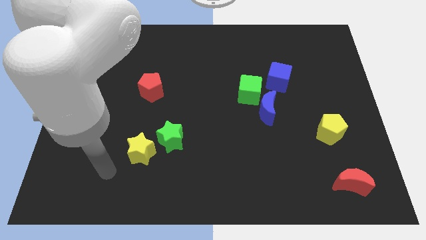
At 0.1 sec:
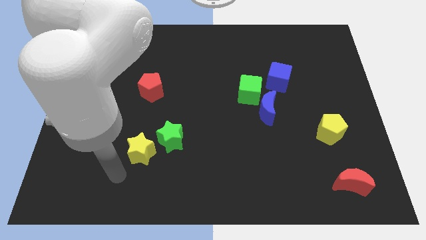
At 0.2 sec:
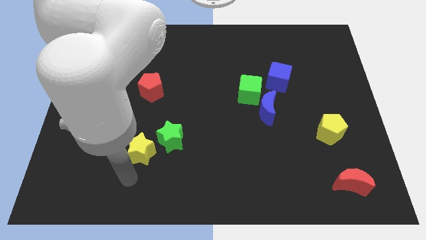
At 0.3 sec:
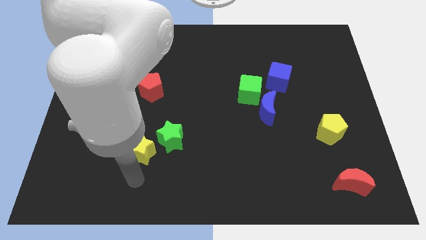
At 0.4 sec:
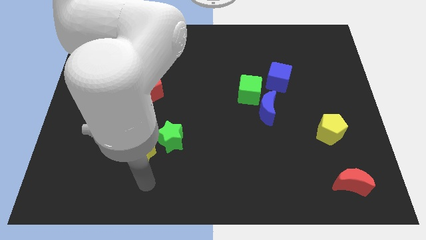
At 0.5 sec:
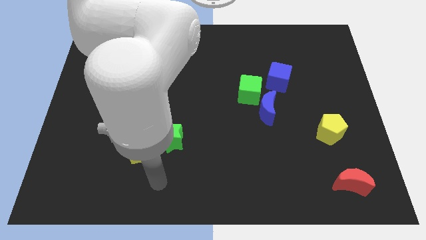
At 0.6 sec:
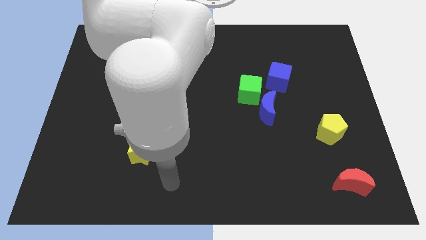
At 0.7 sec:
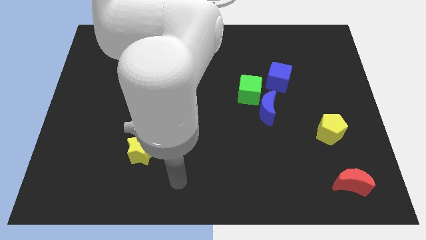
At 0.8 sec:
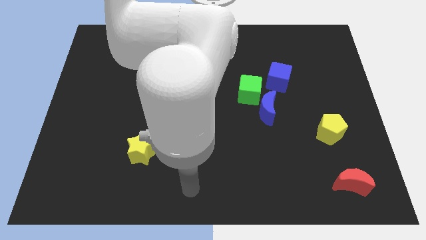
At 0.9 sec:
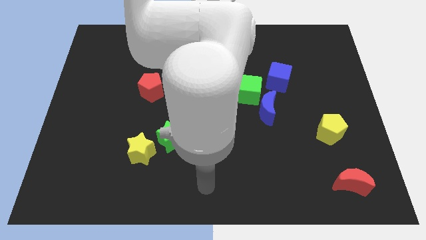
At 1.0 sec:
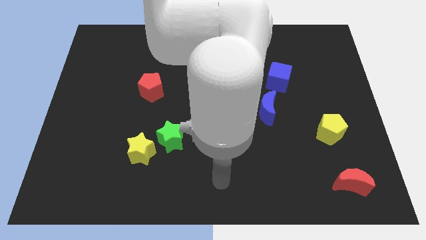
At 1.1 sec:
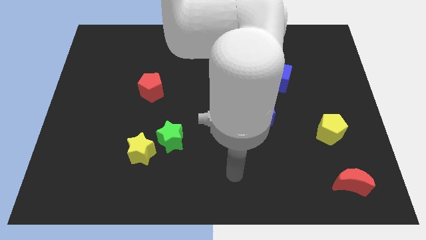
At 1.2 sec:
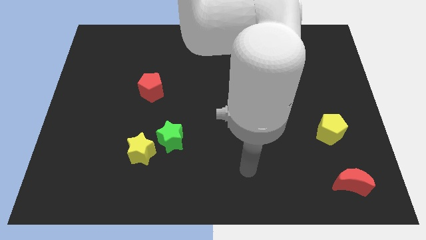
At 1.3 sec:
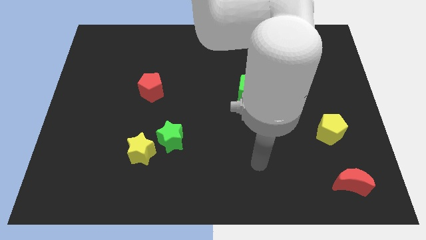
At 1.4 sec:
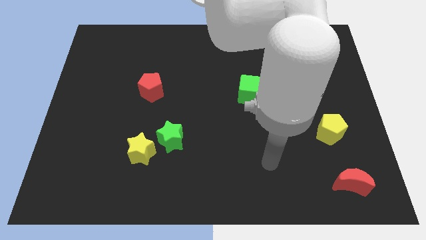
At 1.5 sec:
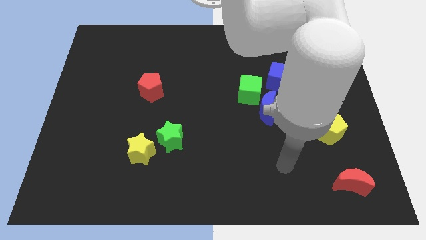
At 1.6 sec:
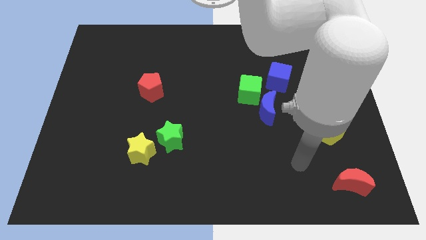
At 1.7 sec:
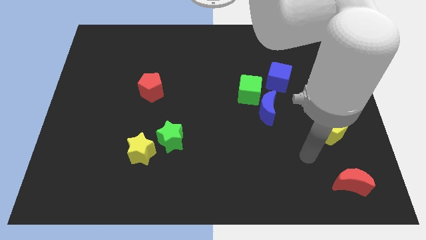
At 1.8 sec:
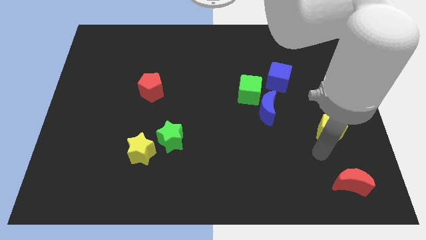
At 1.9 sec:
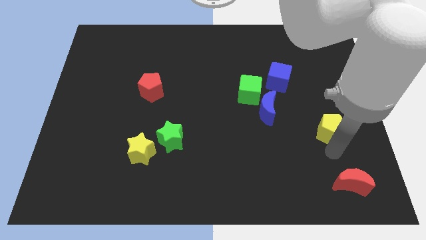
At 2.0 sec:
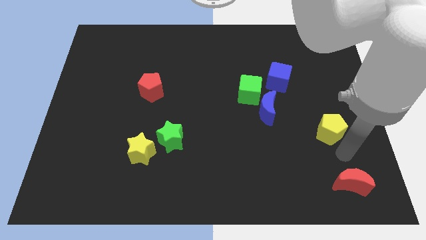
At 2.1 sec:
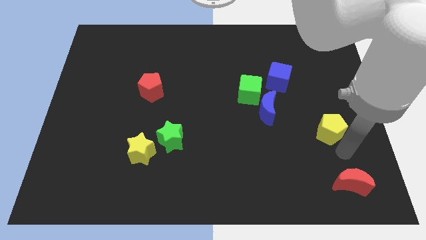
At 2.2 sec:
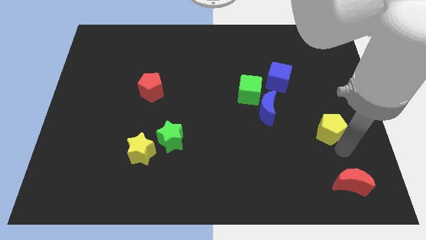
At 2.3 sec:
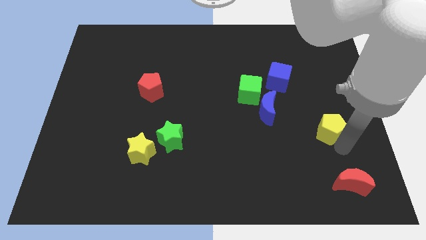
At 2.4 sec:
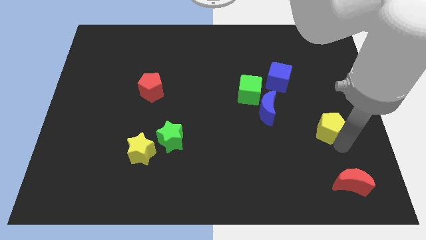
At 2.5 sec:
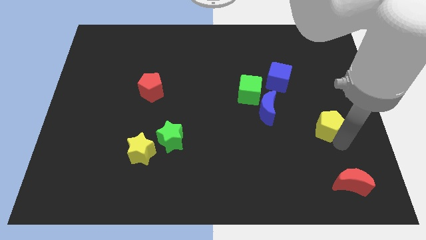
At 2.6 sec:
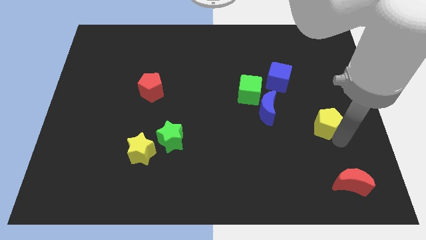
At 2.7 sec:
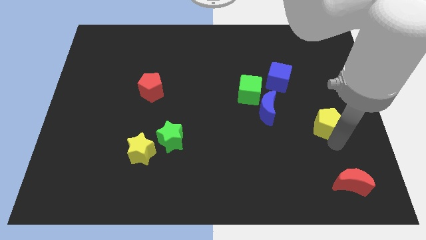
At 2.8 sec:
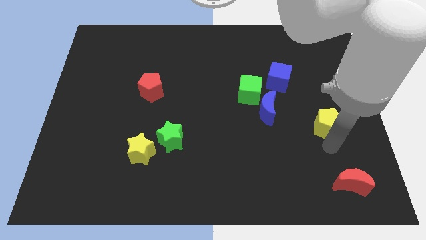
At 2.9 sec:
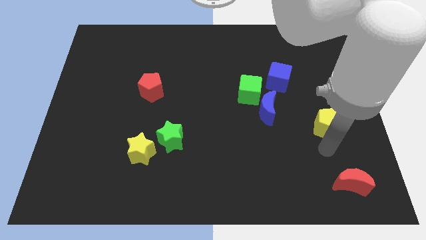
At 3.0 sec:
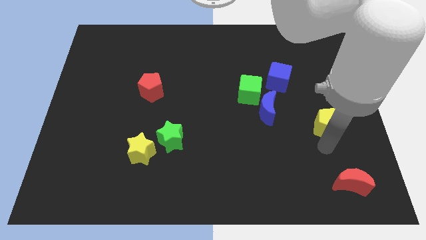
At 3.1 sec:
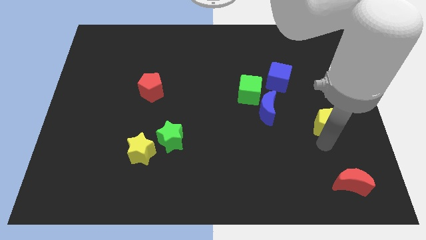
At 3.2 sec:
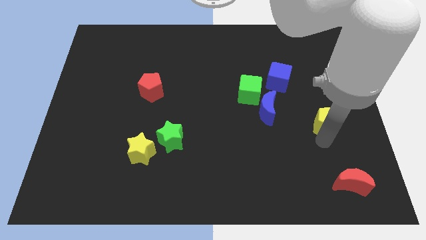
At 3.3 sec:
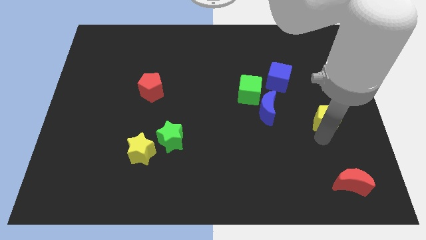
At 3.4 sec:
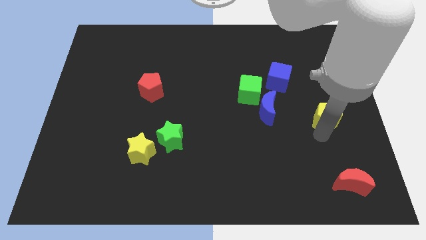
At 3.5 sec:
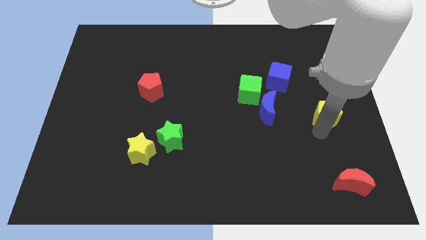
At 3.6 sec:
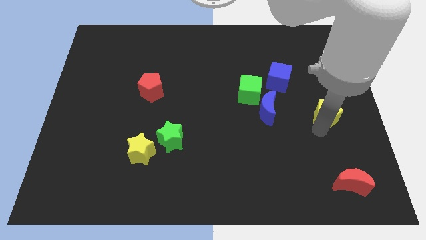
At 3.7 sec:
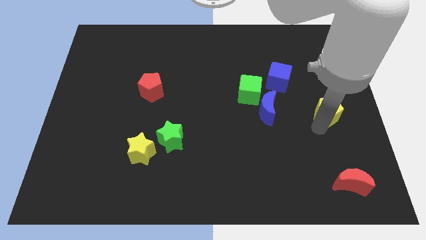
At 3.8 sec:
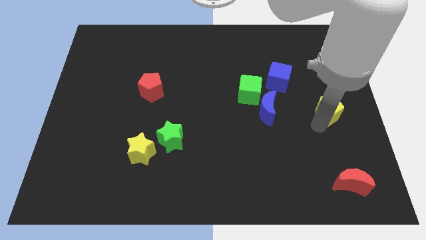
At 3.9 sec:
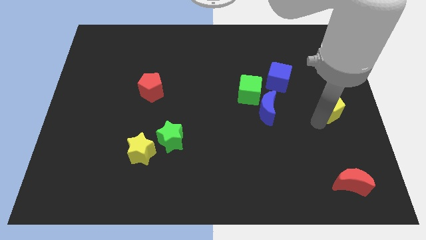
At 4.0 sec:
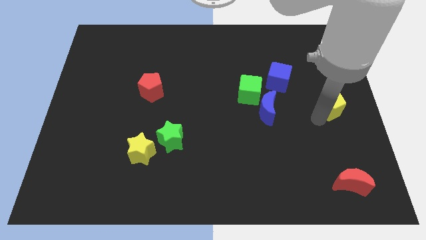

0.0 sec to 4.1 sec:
slide the yellow pentagon upwards somewhat

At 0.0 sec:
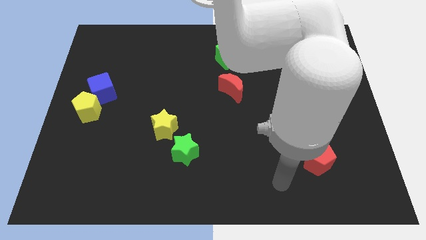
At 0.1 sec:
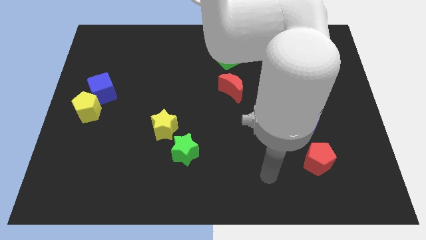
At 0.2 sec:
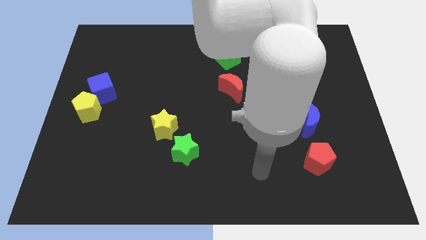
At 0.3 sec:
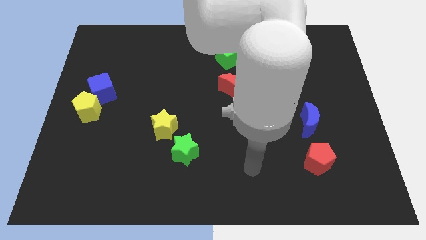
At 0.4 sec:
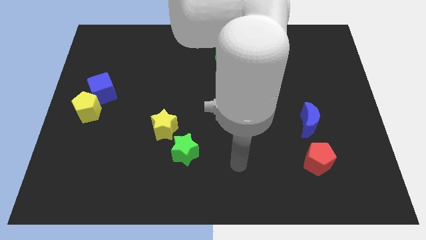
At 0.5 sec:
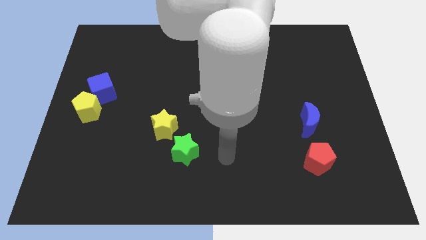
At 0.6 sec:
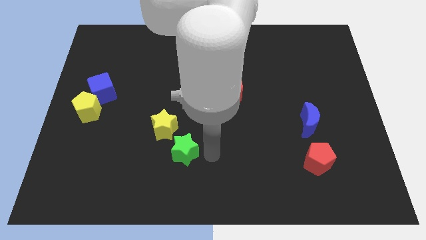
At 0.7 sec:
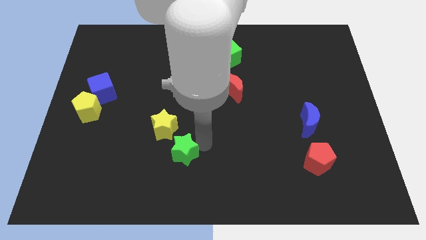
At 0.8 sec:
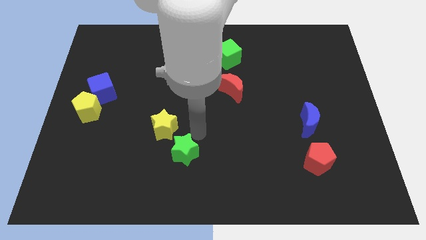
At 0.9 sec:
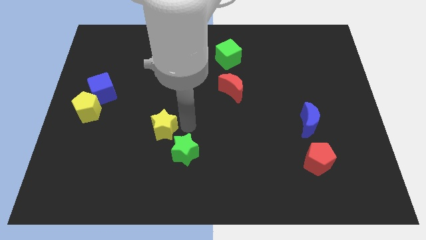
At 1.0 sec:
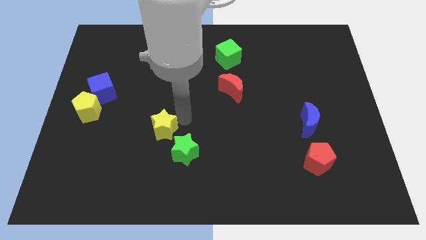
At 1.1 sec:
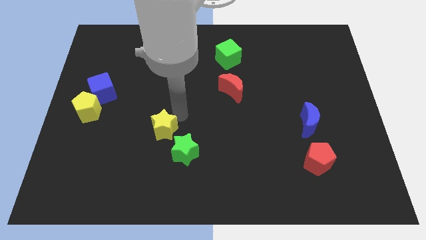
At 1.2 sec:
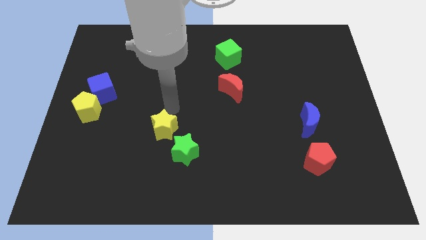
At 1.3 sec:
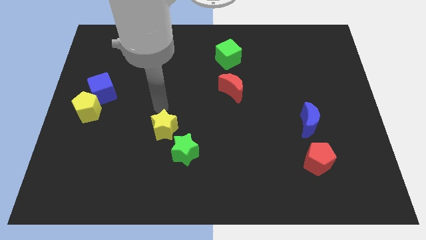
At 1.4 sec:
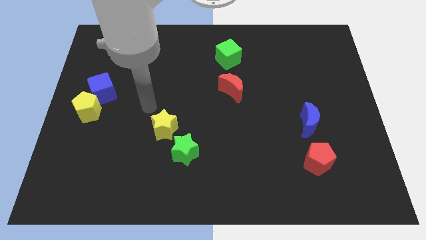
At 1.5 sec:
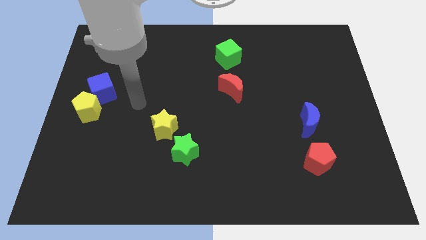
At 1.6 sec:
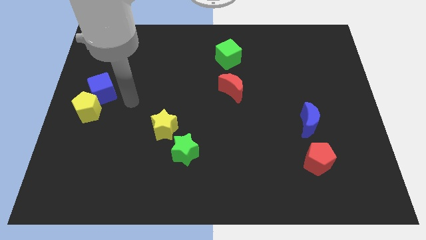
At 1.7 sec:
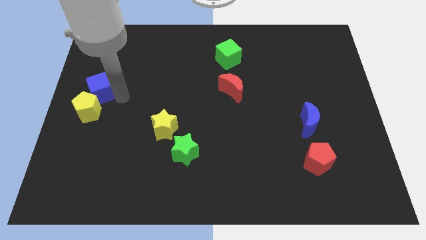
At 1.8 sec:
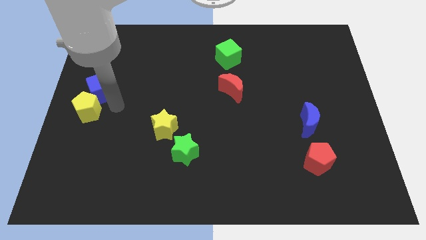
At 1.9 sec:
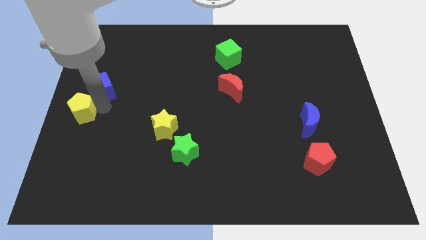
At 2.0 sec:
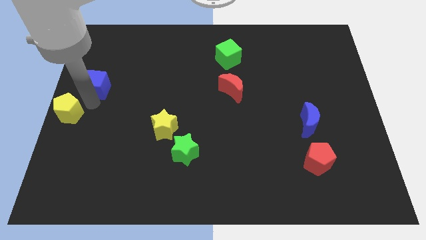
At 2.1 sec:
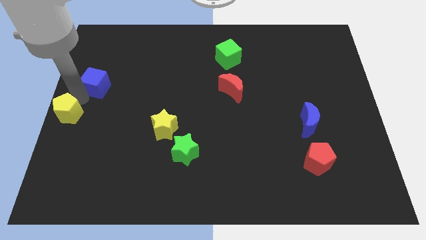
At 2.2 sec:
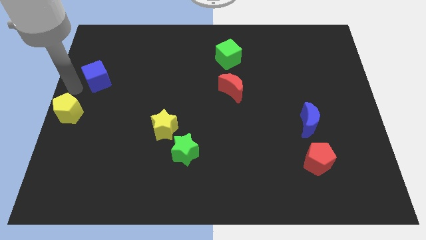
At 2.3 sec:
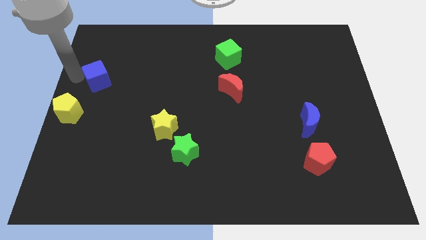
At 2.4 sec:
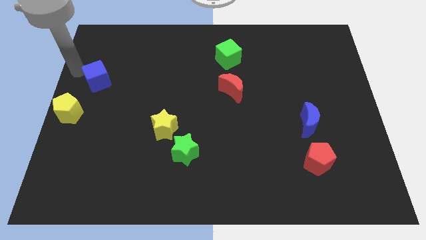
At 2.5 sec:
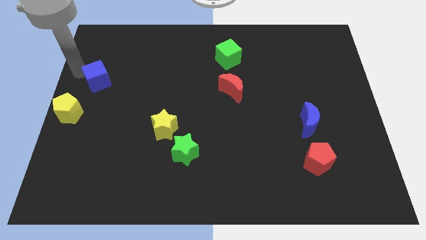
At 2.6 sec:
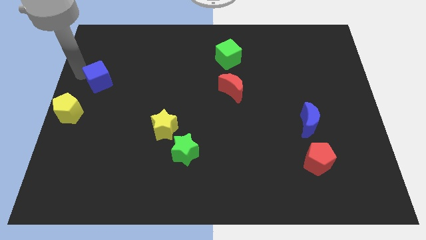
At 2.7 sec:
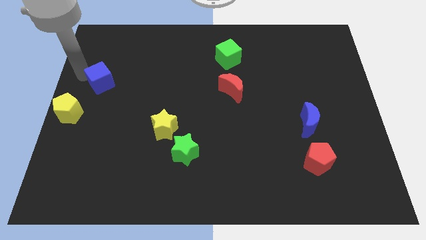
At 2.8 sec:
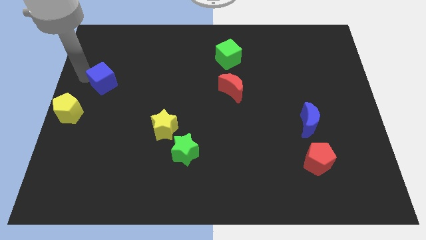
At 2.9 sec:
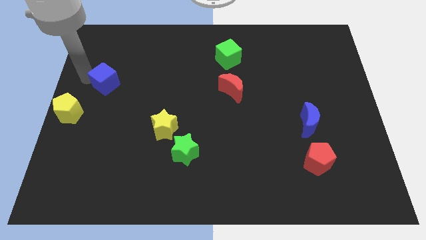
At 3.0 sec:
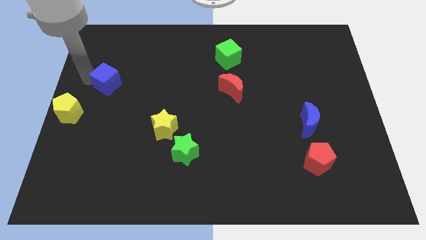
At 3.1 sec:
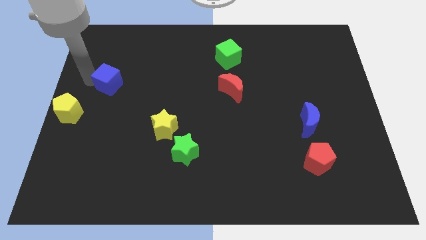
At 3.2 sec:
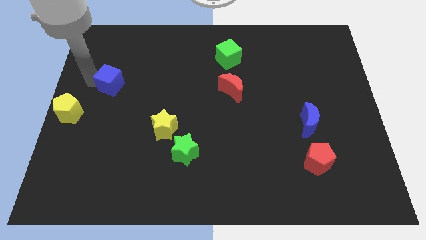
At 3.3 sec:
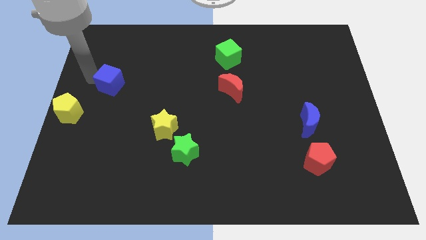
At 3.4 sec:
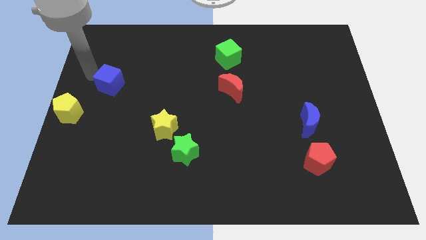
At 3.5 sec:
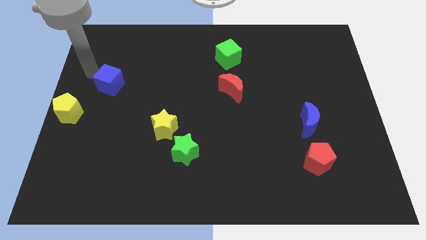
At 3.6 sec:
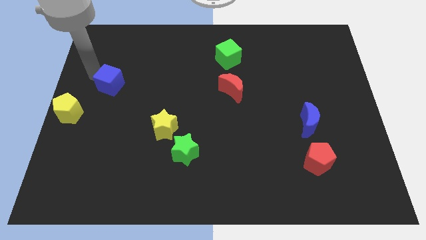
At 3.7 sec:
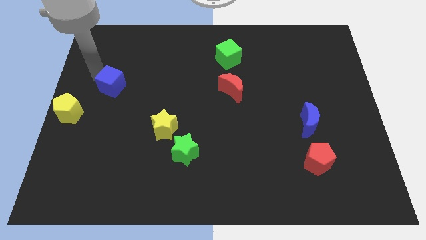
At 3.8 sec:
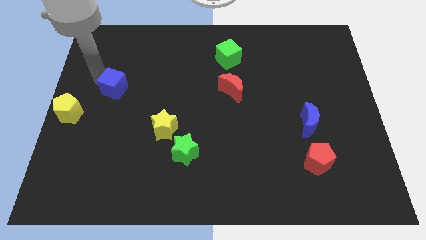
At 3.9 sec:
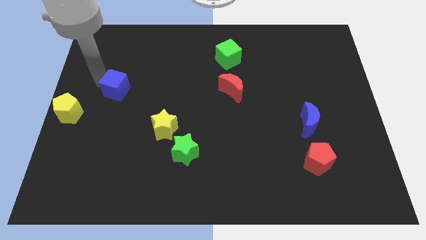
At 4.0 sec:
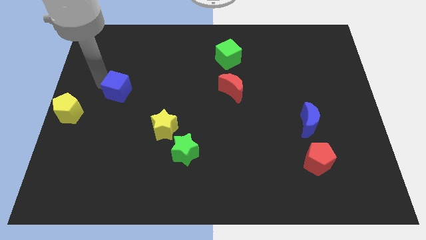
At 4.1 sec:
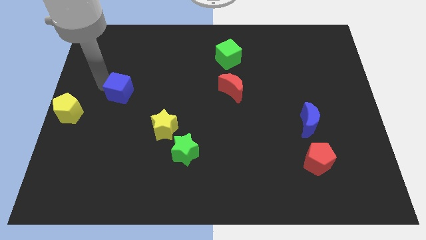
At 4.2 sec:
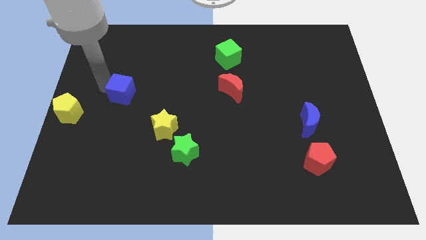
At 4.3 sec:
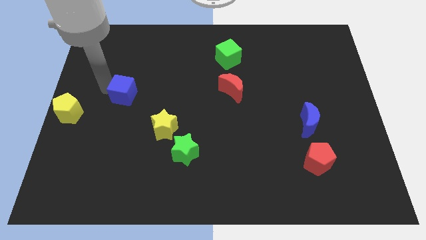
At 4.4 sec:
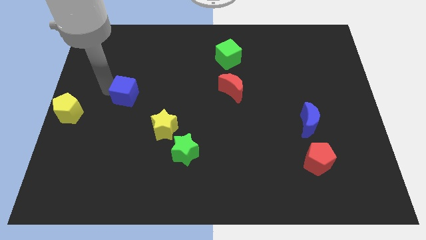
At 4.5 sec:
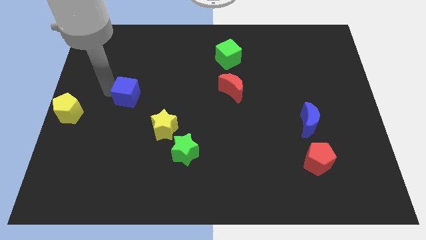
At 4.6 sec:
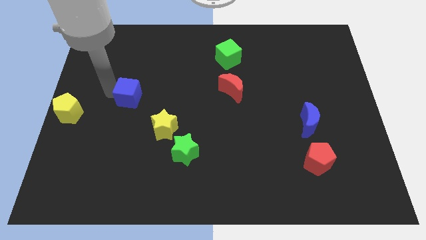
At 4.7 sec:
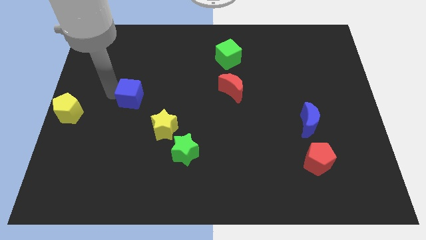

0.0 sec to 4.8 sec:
slightly move the blue cube right
